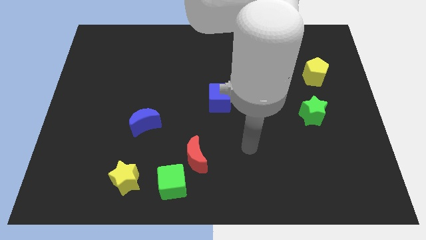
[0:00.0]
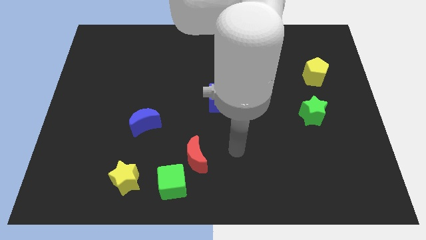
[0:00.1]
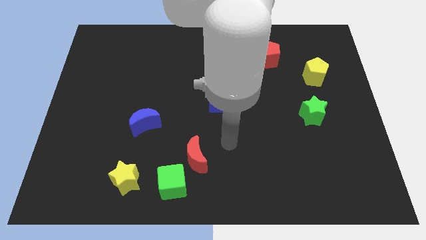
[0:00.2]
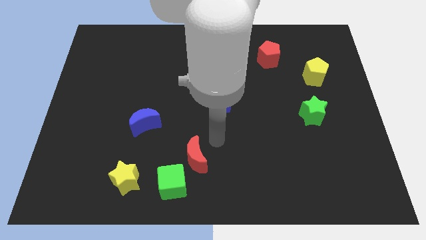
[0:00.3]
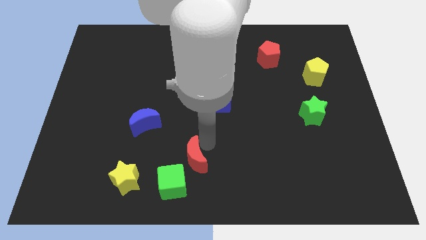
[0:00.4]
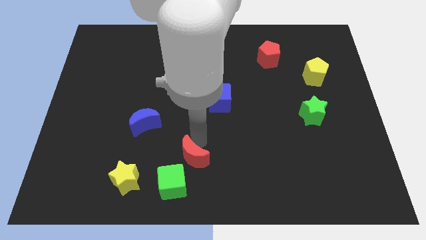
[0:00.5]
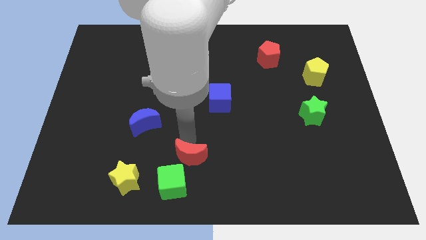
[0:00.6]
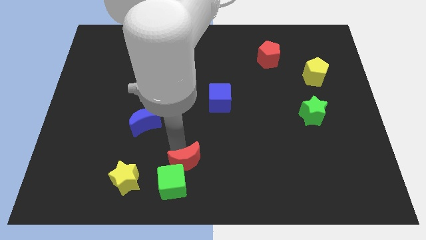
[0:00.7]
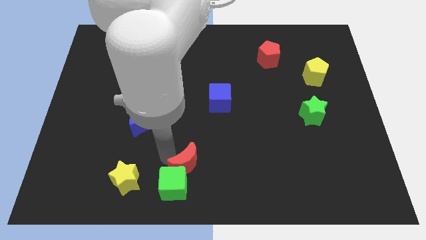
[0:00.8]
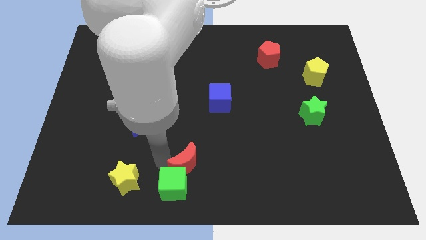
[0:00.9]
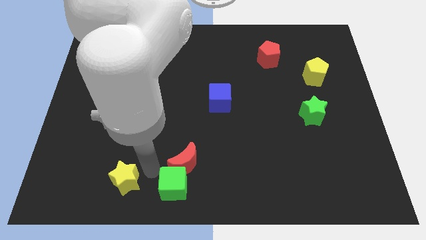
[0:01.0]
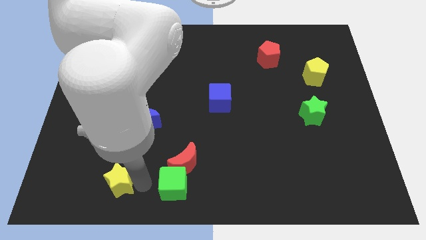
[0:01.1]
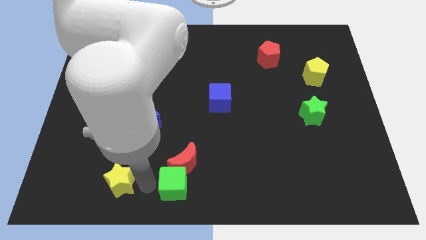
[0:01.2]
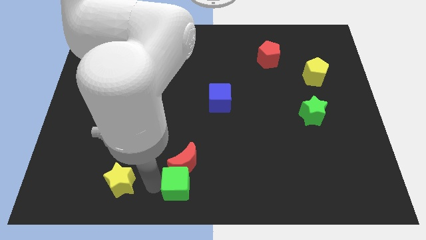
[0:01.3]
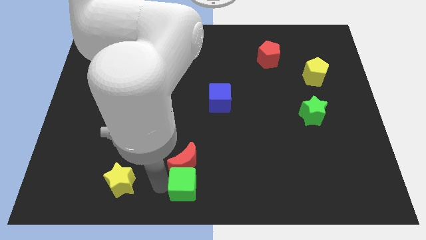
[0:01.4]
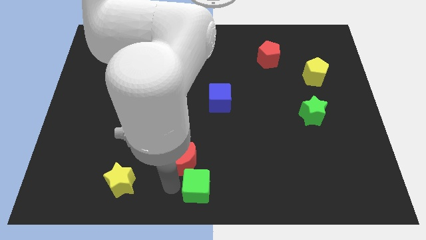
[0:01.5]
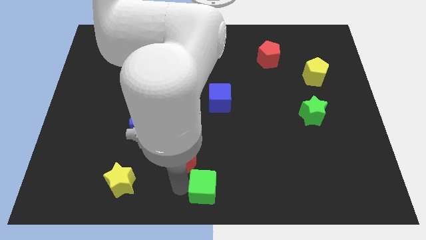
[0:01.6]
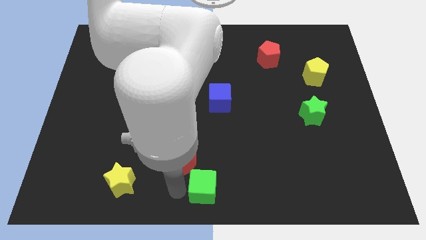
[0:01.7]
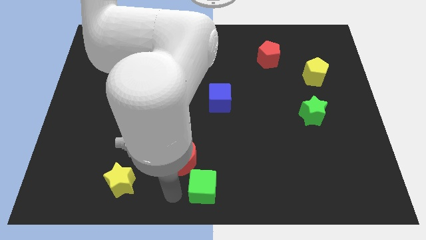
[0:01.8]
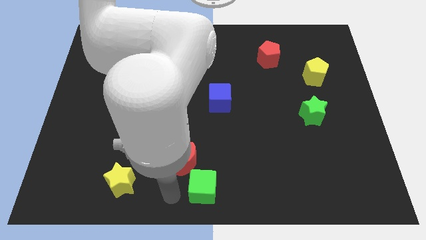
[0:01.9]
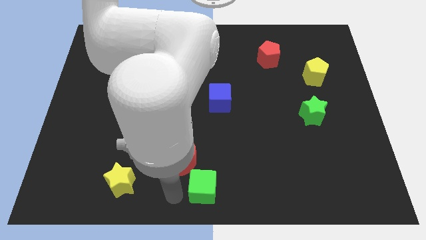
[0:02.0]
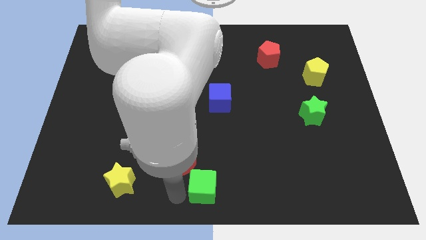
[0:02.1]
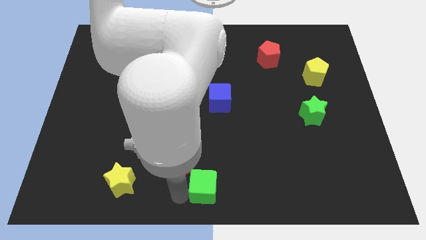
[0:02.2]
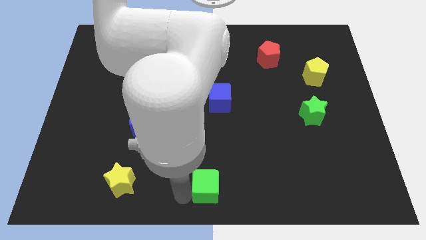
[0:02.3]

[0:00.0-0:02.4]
slide the green cube right a little bit

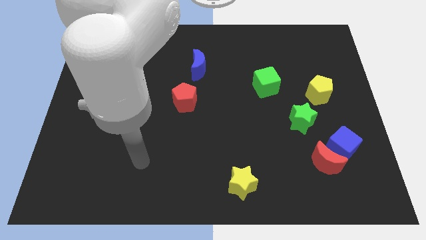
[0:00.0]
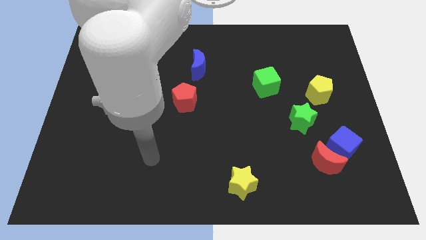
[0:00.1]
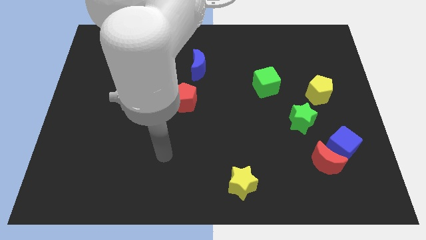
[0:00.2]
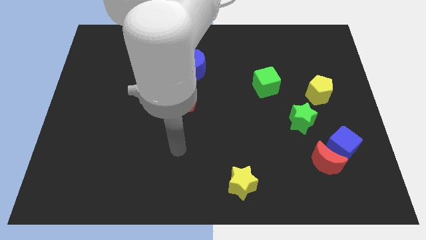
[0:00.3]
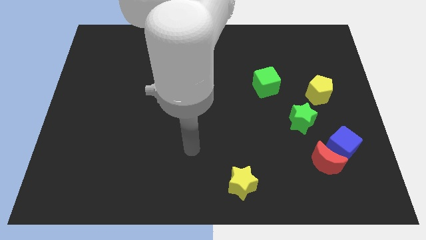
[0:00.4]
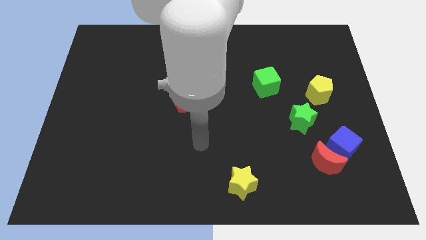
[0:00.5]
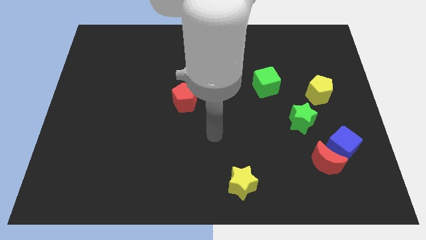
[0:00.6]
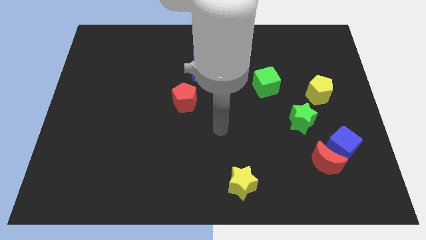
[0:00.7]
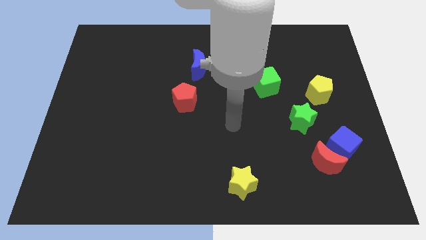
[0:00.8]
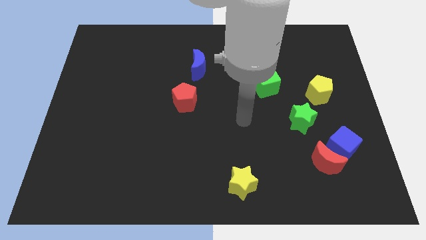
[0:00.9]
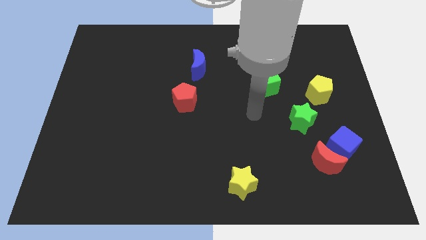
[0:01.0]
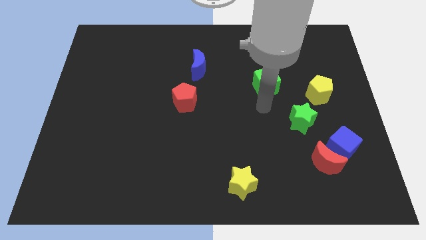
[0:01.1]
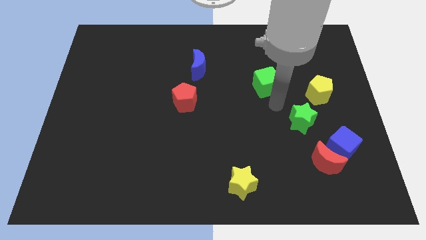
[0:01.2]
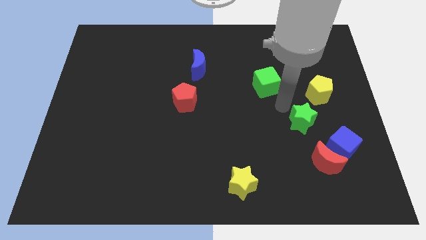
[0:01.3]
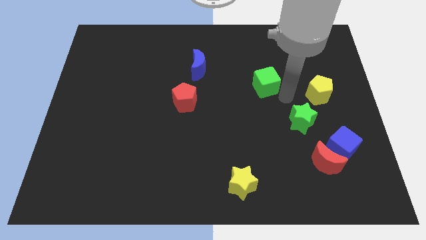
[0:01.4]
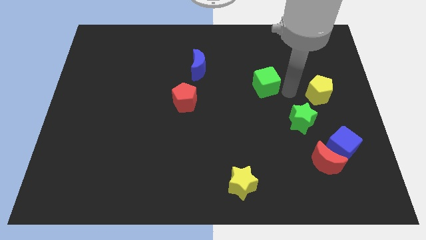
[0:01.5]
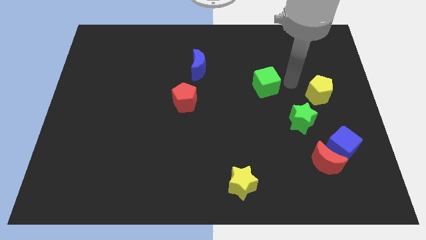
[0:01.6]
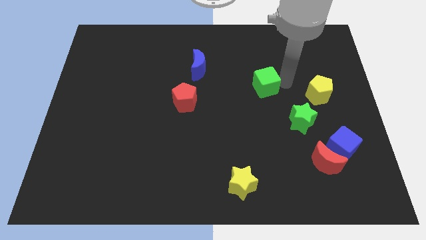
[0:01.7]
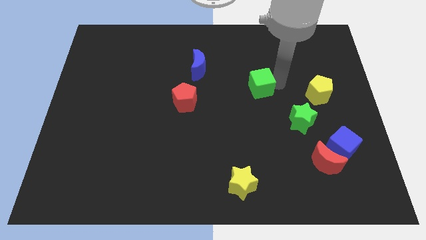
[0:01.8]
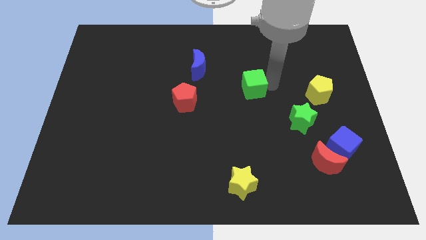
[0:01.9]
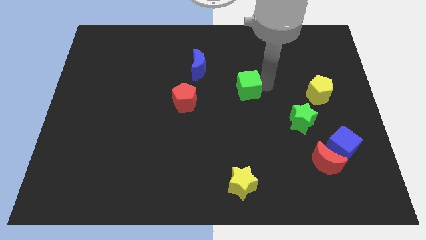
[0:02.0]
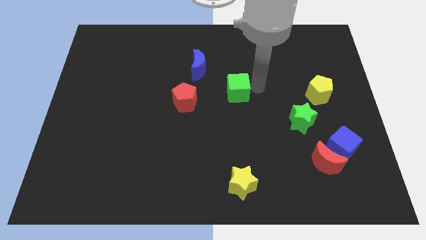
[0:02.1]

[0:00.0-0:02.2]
move the green cube to the left a bit

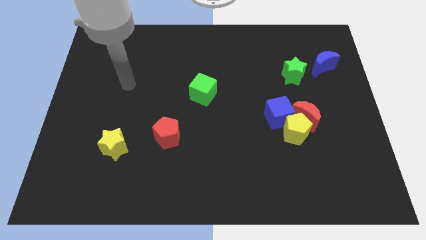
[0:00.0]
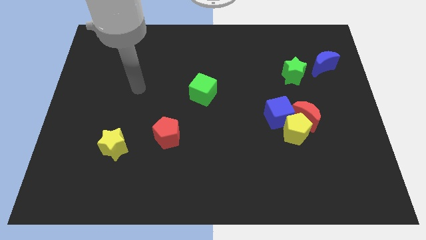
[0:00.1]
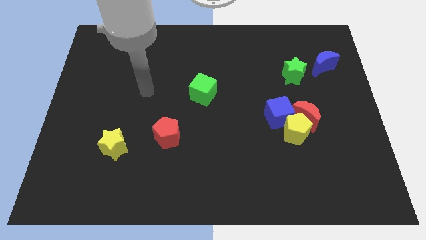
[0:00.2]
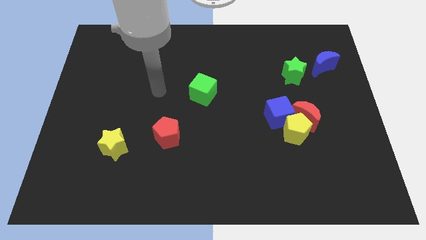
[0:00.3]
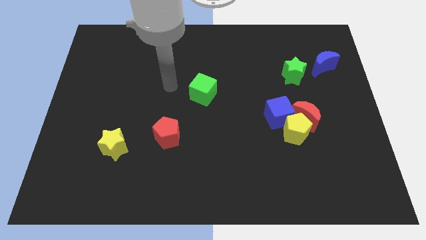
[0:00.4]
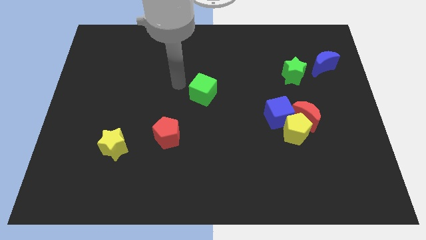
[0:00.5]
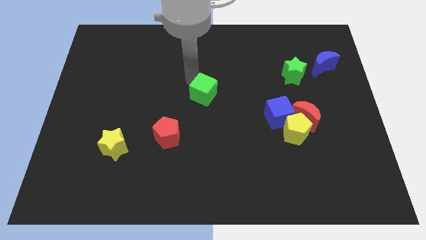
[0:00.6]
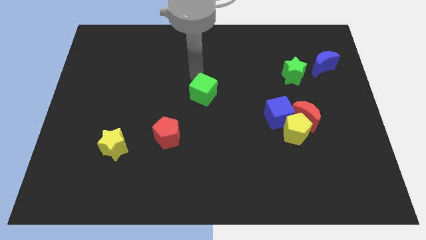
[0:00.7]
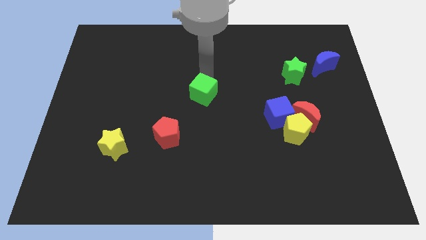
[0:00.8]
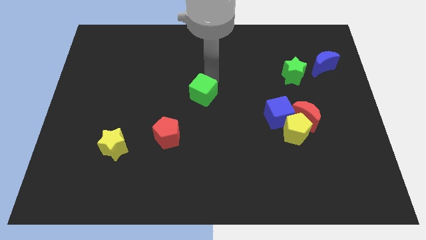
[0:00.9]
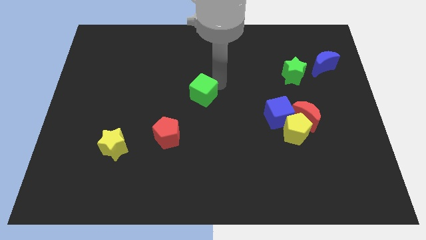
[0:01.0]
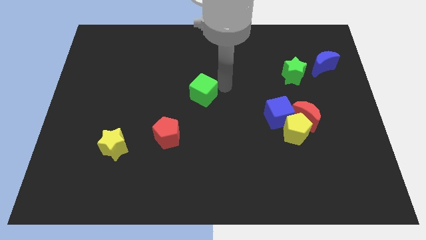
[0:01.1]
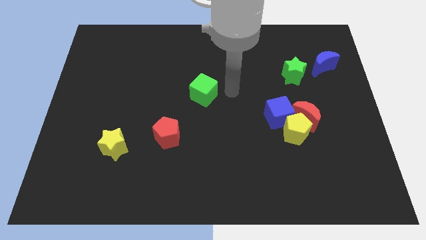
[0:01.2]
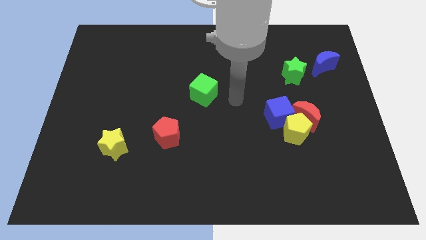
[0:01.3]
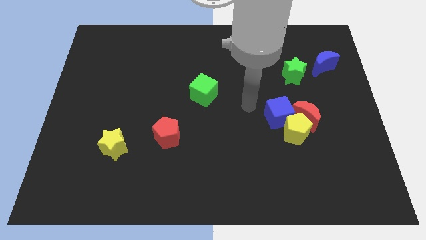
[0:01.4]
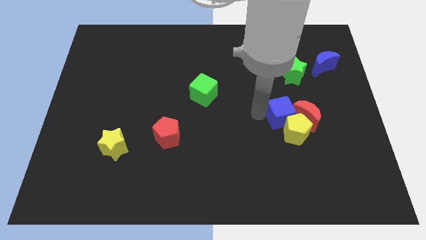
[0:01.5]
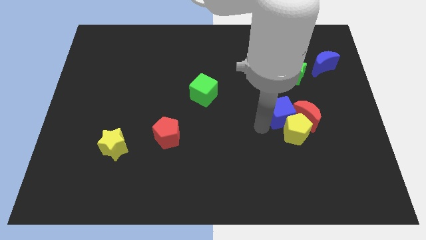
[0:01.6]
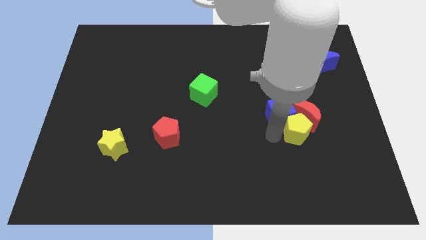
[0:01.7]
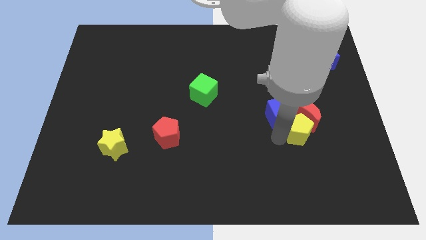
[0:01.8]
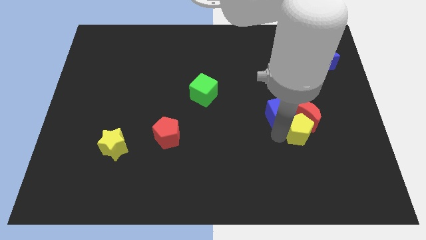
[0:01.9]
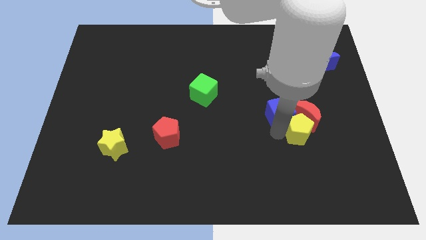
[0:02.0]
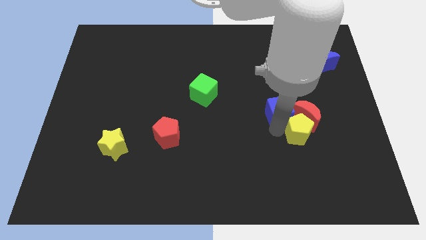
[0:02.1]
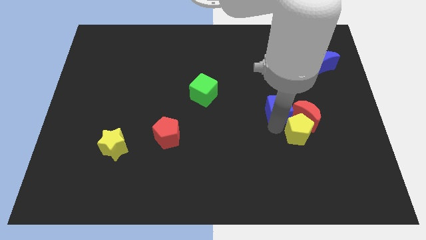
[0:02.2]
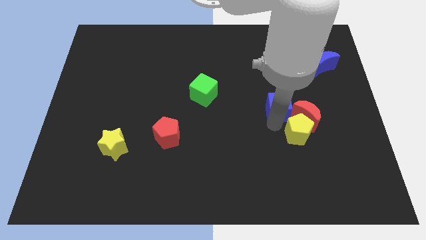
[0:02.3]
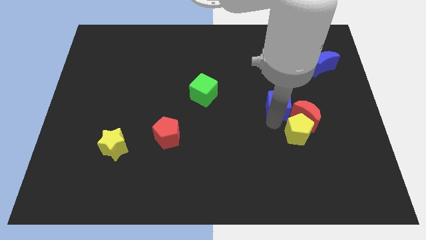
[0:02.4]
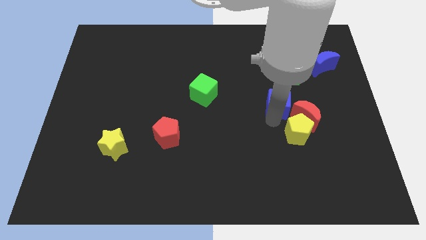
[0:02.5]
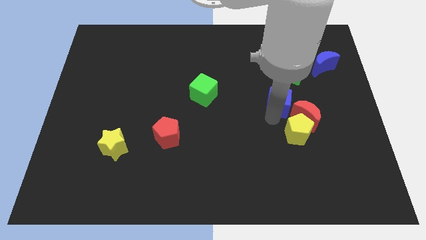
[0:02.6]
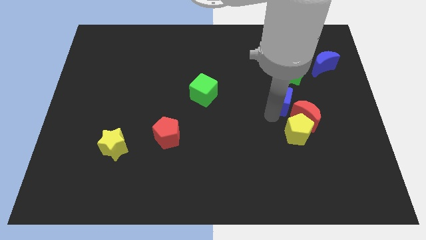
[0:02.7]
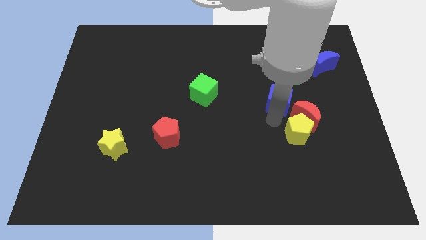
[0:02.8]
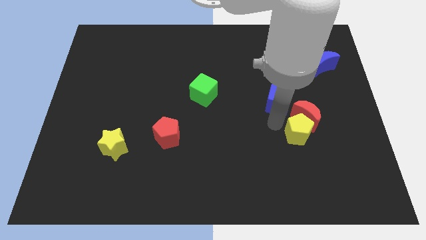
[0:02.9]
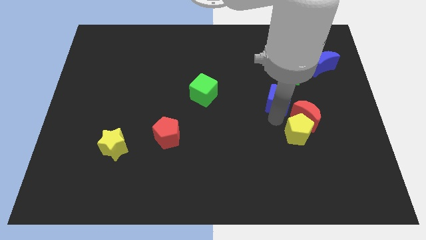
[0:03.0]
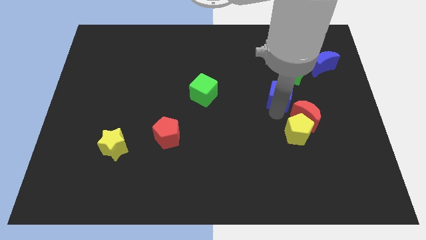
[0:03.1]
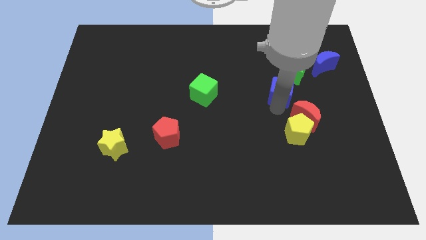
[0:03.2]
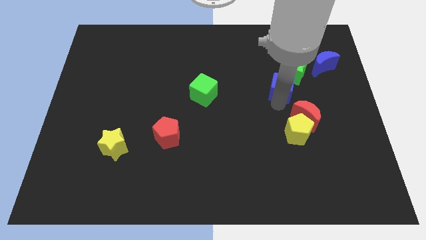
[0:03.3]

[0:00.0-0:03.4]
move the blue cube up a bit

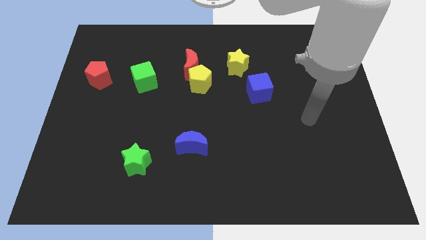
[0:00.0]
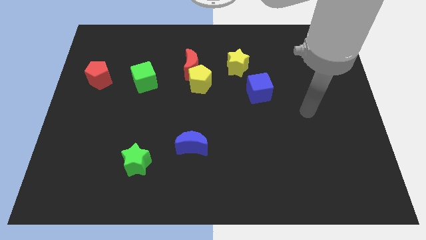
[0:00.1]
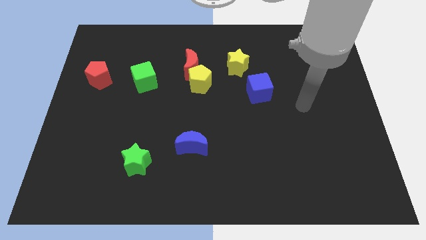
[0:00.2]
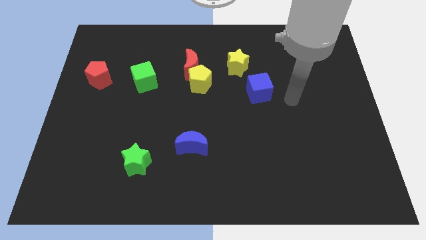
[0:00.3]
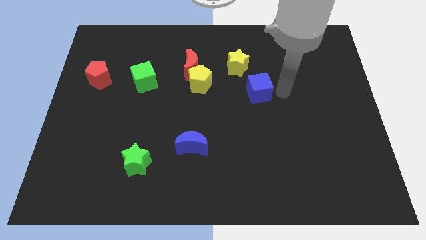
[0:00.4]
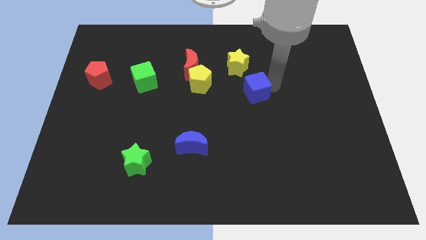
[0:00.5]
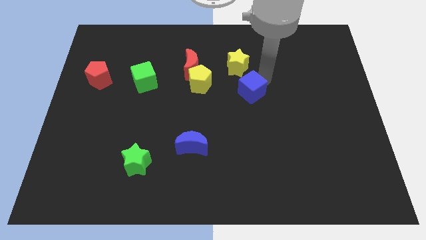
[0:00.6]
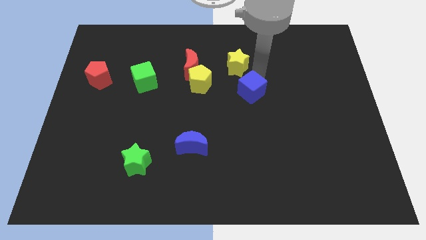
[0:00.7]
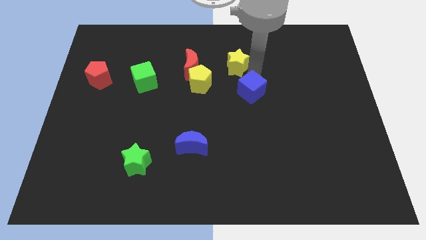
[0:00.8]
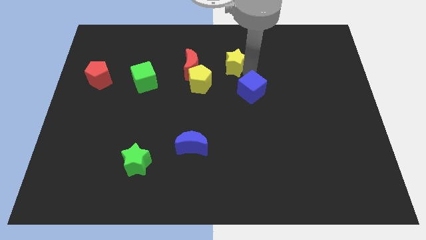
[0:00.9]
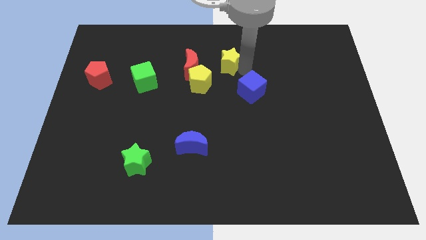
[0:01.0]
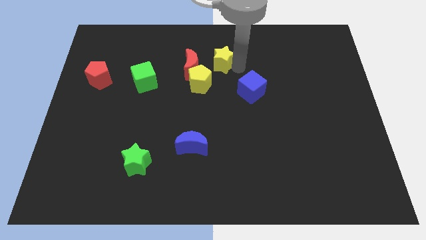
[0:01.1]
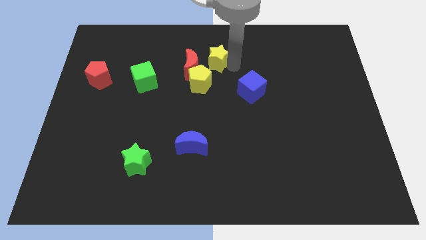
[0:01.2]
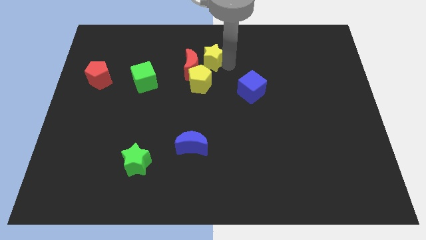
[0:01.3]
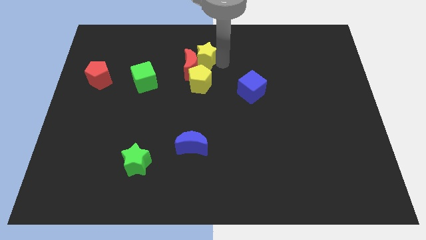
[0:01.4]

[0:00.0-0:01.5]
move the yellow star a little left
